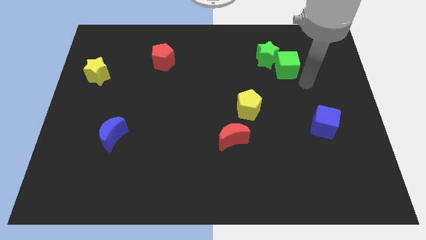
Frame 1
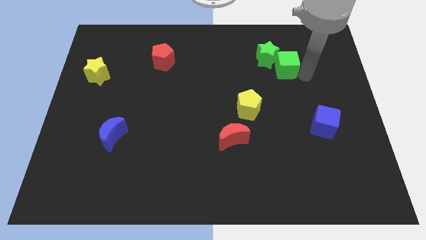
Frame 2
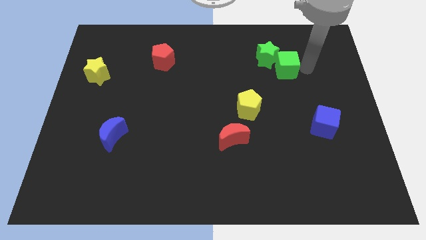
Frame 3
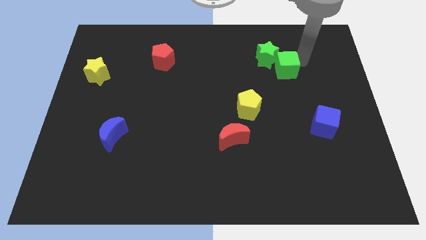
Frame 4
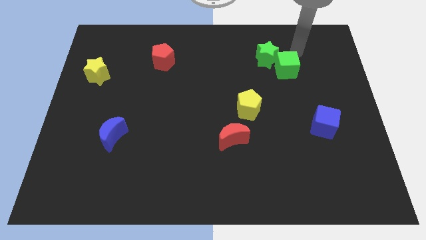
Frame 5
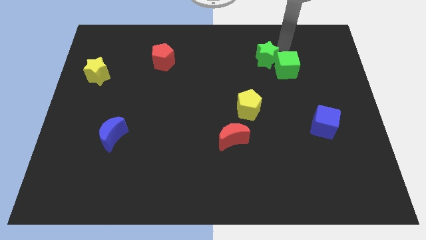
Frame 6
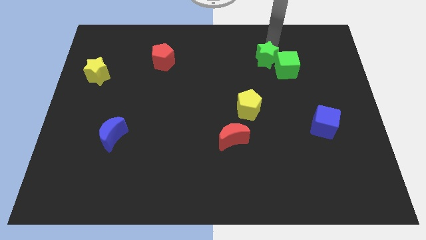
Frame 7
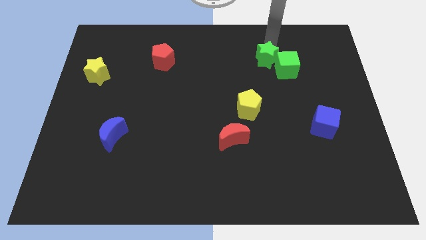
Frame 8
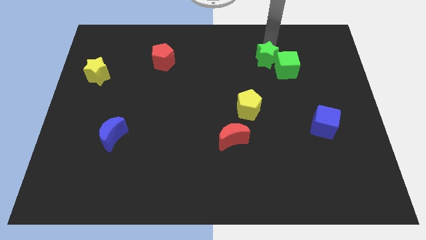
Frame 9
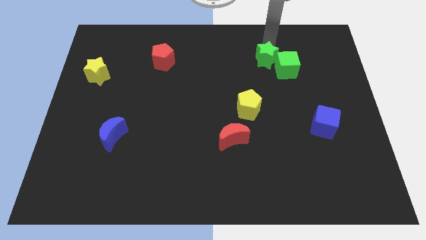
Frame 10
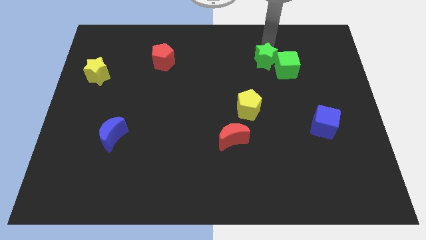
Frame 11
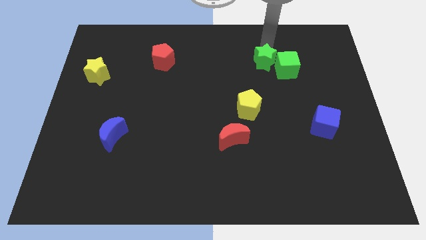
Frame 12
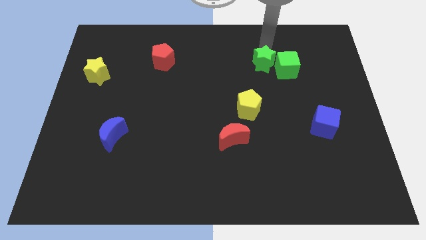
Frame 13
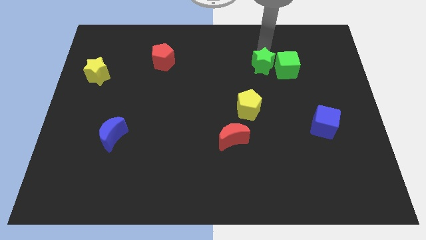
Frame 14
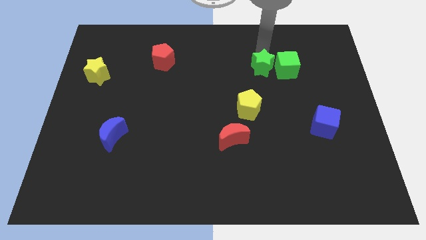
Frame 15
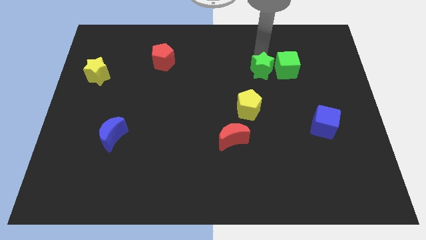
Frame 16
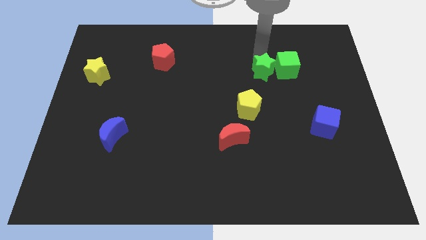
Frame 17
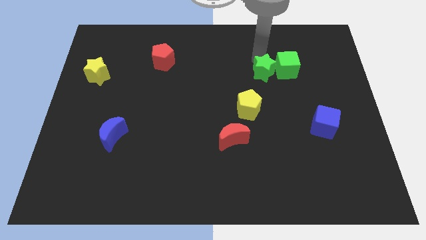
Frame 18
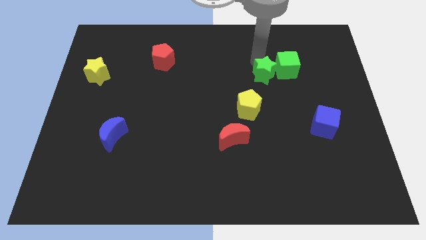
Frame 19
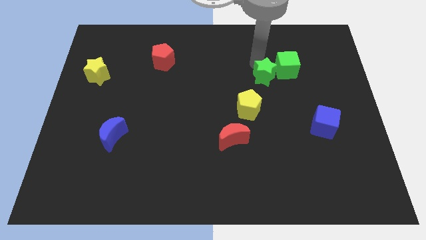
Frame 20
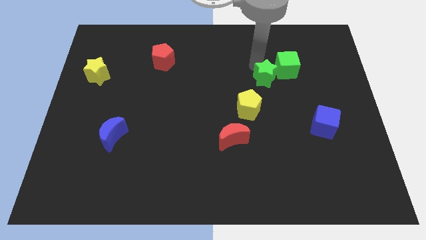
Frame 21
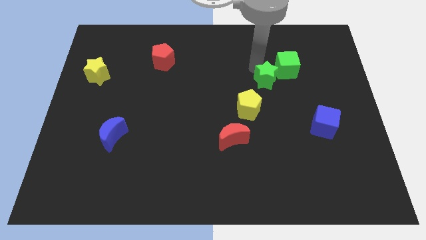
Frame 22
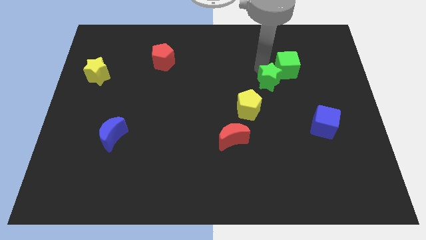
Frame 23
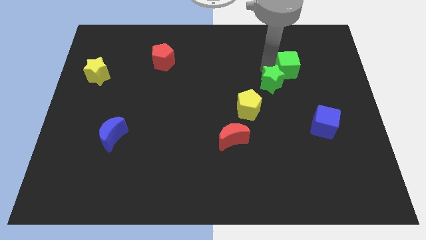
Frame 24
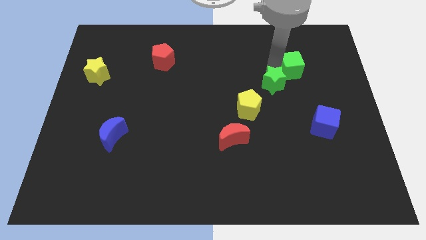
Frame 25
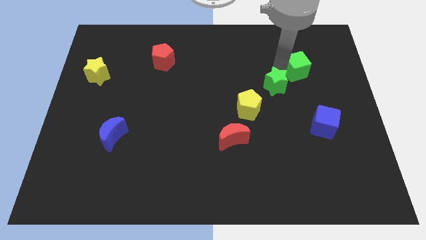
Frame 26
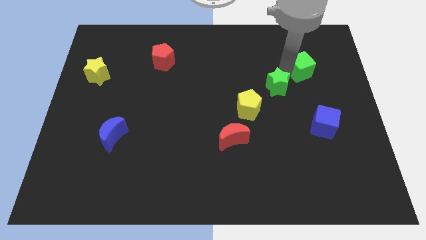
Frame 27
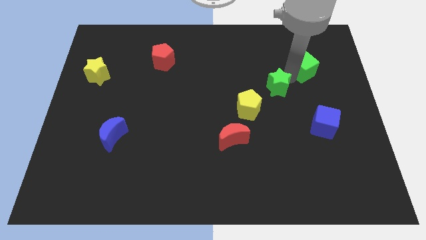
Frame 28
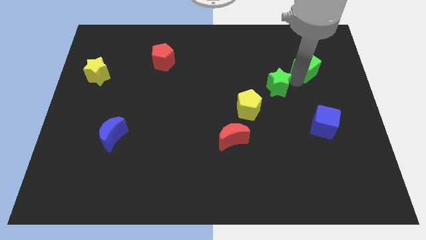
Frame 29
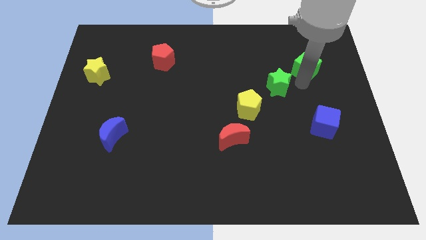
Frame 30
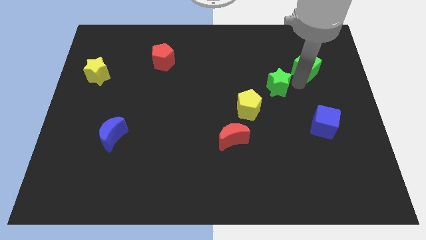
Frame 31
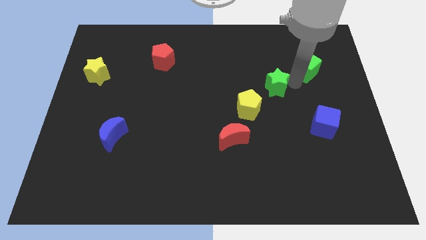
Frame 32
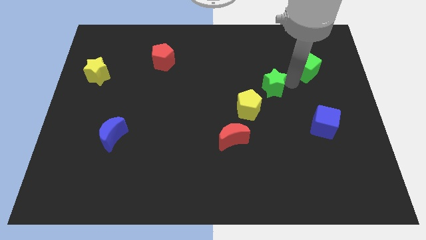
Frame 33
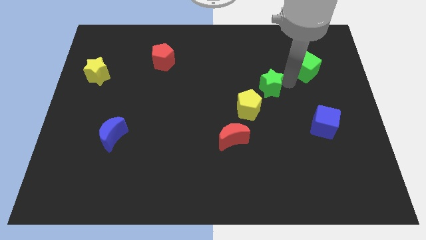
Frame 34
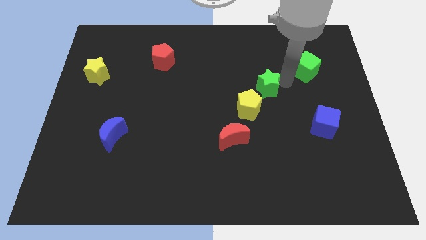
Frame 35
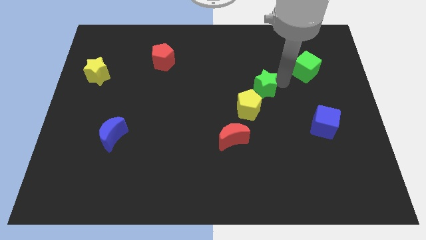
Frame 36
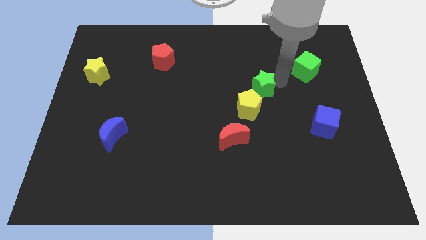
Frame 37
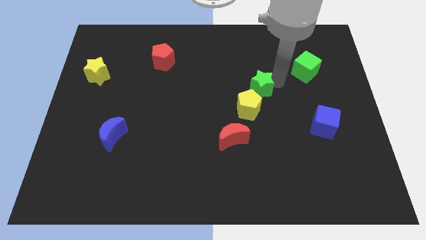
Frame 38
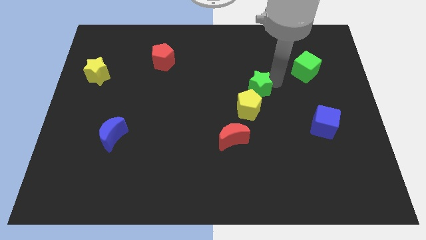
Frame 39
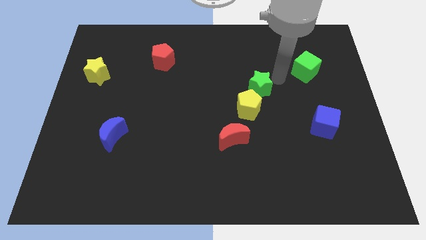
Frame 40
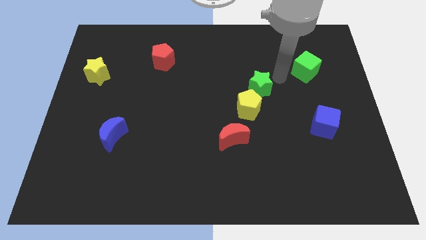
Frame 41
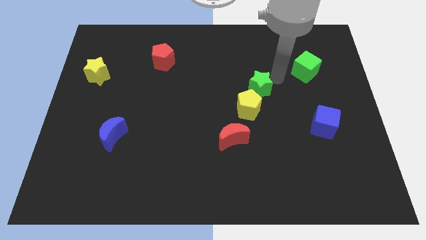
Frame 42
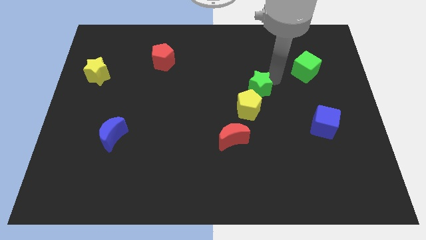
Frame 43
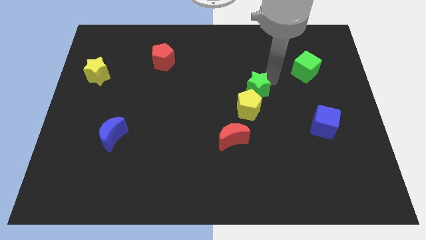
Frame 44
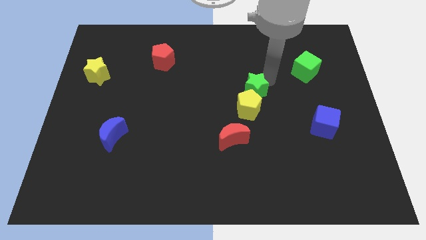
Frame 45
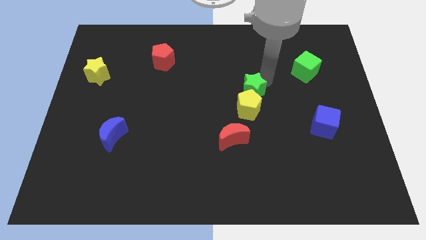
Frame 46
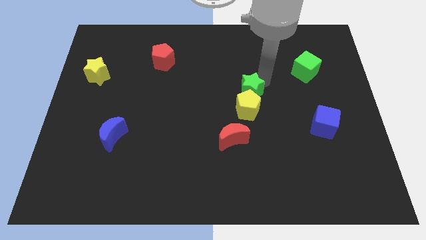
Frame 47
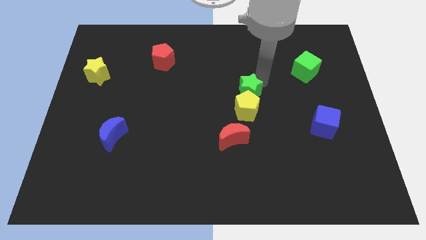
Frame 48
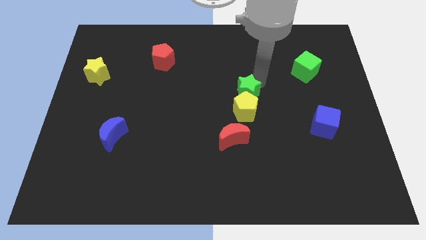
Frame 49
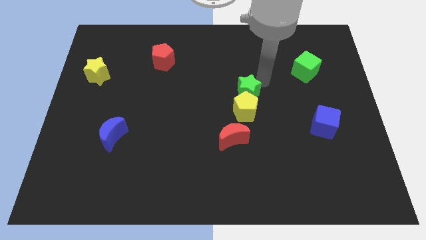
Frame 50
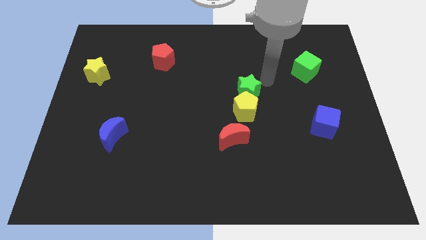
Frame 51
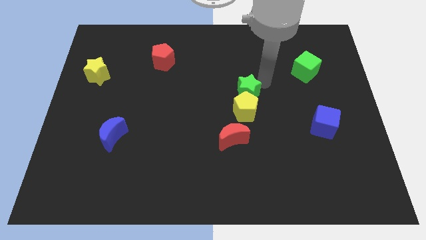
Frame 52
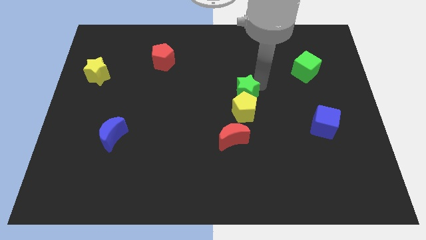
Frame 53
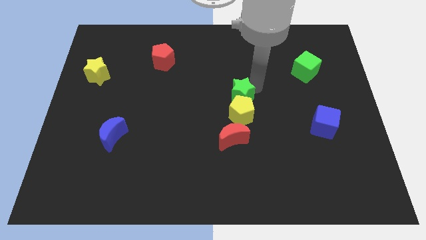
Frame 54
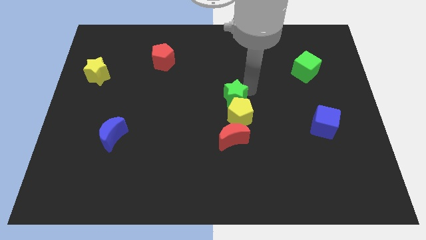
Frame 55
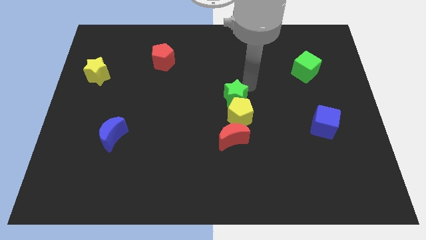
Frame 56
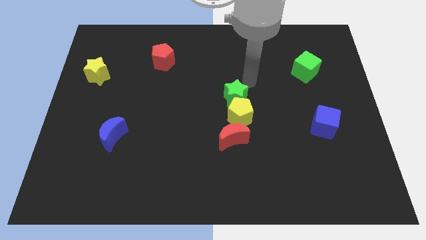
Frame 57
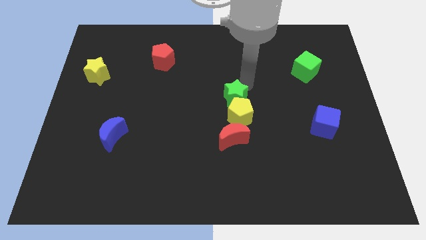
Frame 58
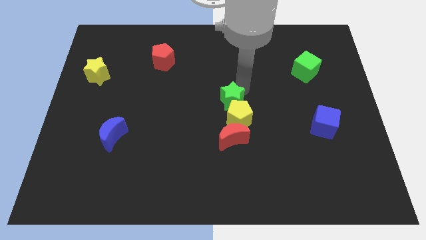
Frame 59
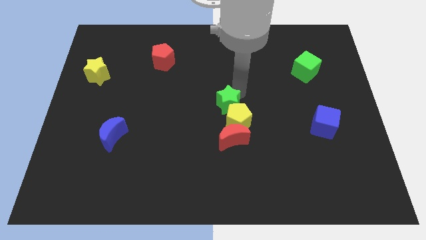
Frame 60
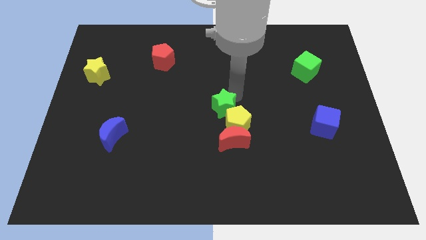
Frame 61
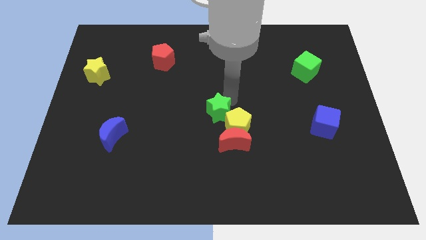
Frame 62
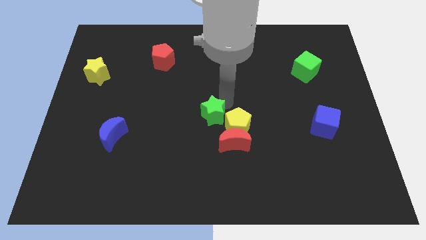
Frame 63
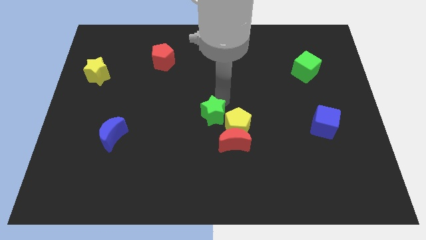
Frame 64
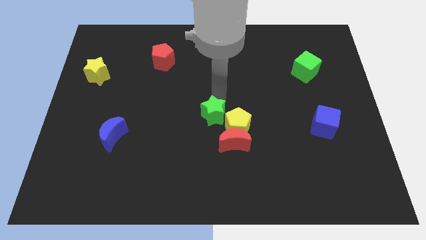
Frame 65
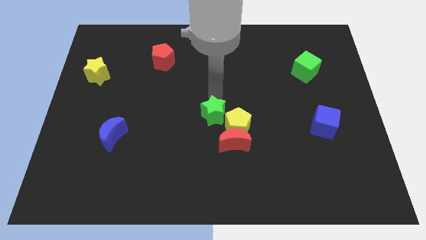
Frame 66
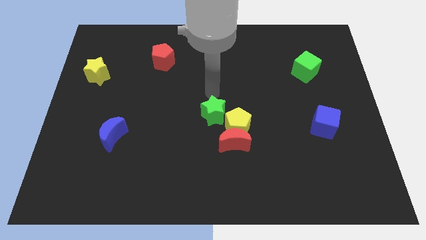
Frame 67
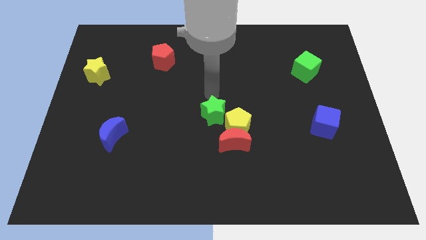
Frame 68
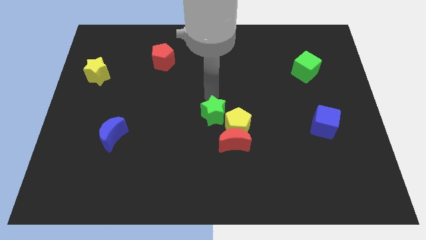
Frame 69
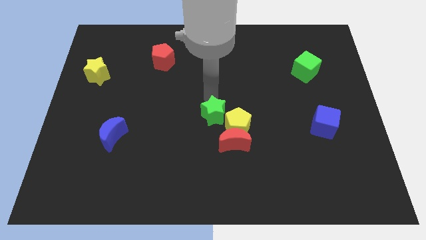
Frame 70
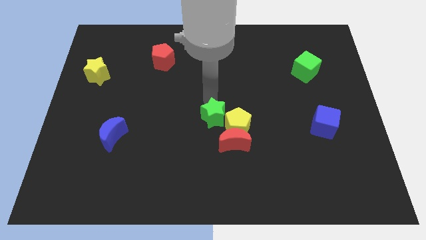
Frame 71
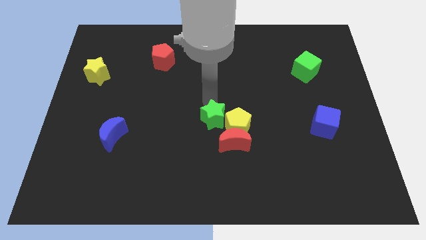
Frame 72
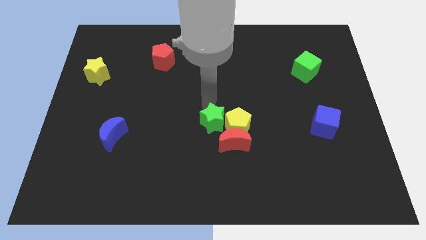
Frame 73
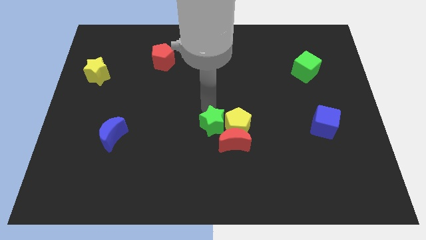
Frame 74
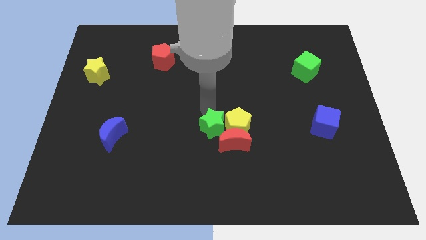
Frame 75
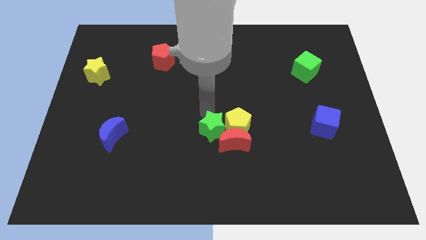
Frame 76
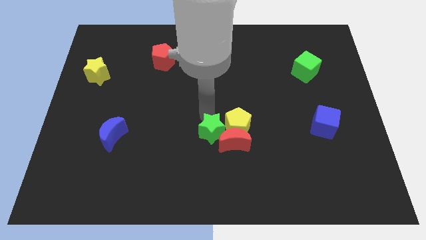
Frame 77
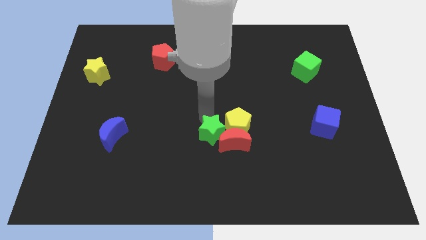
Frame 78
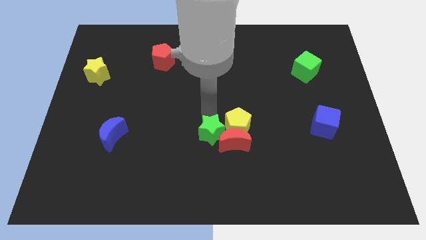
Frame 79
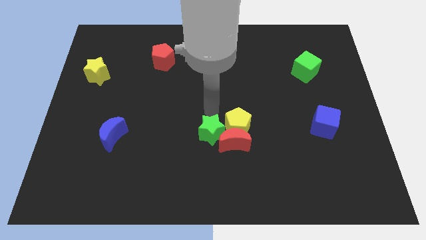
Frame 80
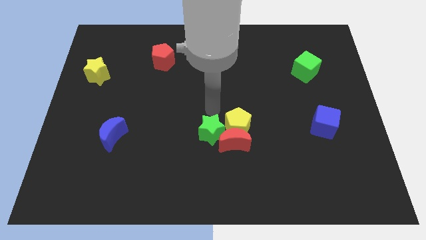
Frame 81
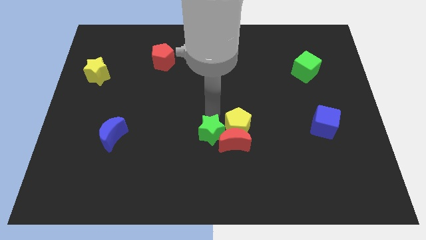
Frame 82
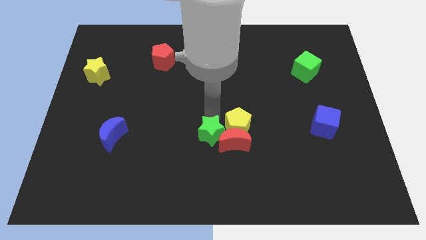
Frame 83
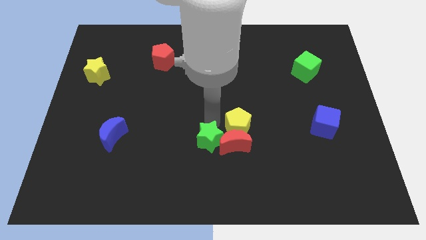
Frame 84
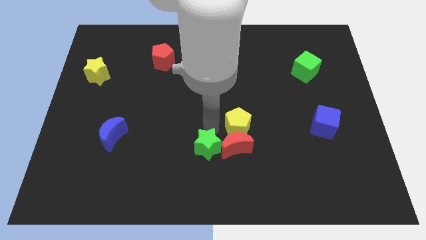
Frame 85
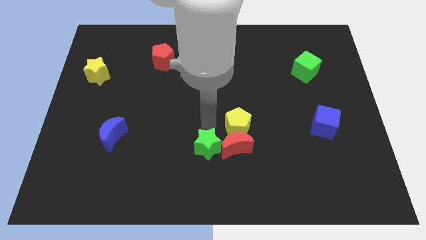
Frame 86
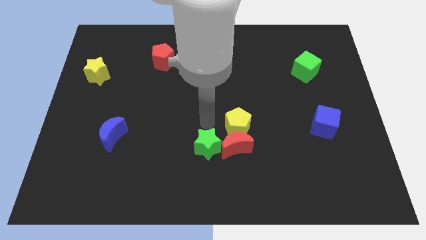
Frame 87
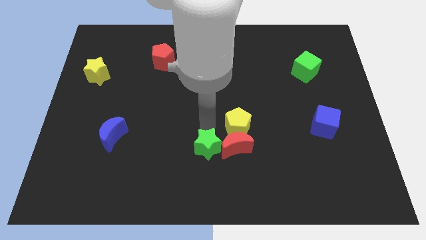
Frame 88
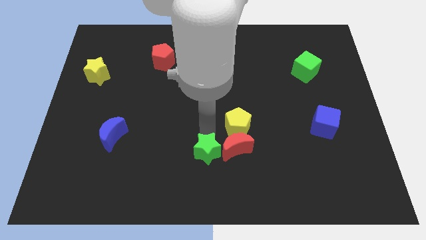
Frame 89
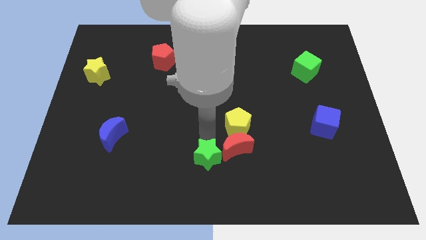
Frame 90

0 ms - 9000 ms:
move the green star to the bottom side
